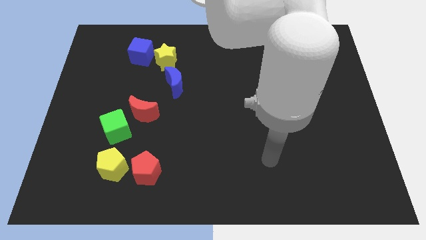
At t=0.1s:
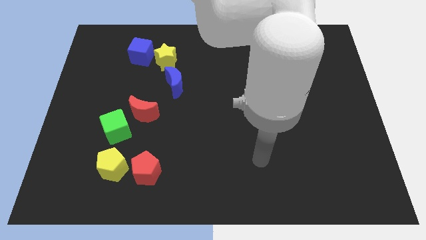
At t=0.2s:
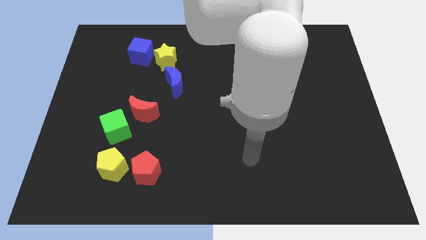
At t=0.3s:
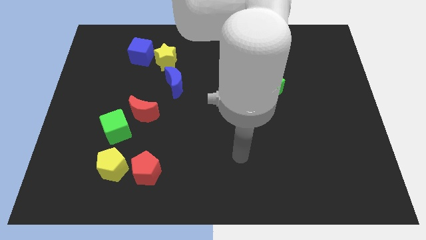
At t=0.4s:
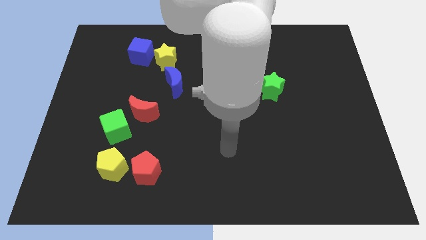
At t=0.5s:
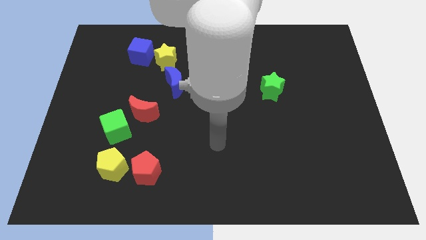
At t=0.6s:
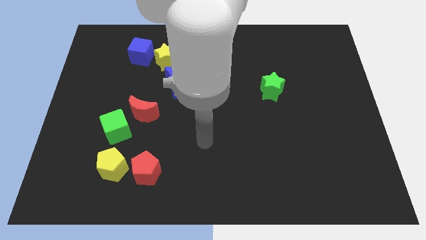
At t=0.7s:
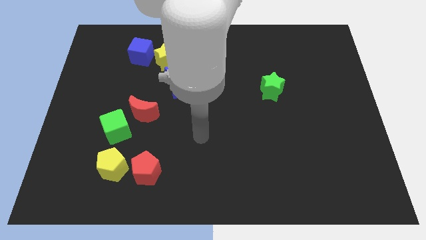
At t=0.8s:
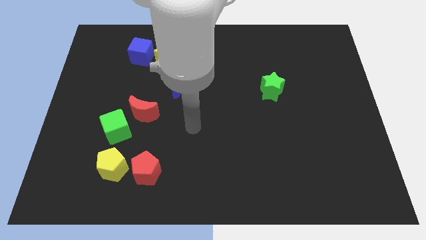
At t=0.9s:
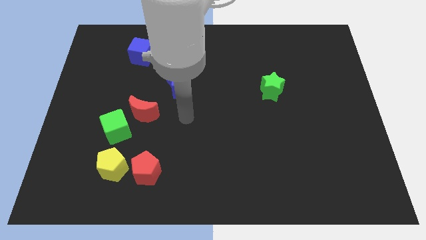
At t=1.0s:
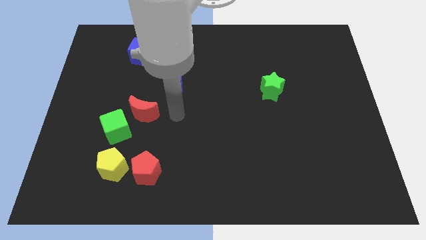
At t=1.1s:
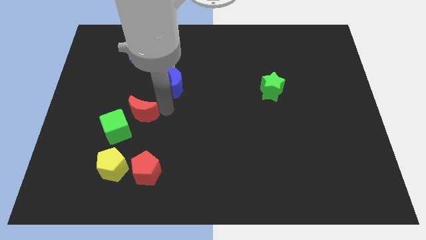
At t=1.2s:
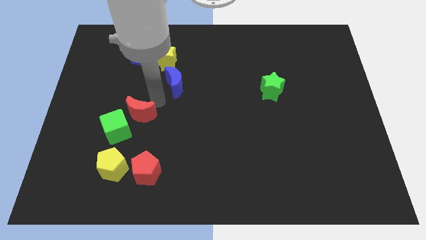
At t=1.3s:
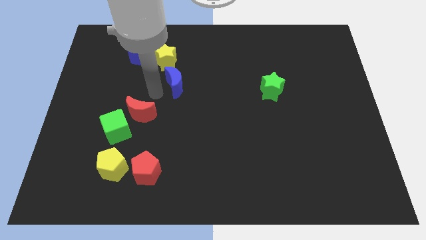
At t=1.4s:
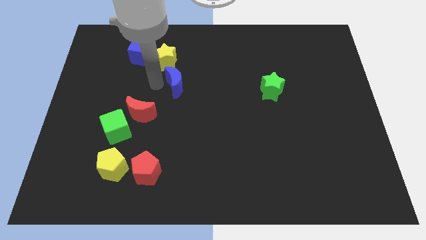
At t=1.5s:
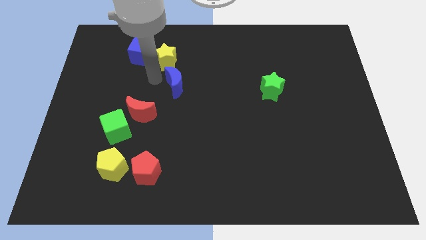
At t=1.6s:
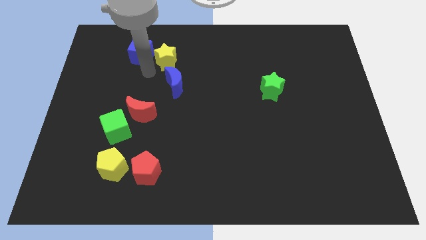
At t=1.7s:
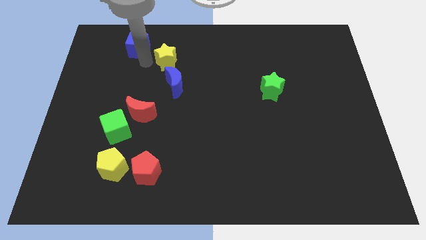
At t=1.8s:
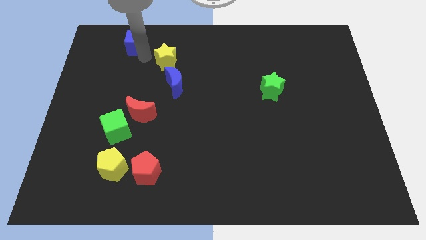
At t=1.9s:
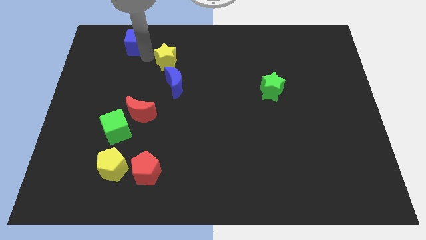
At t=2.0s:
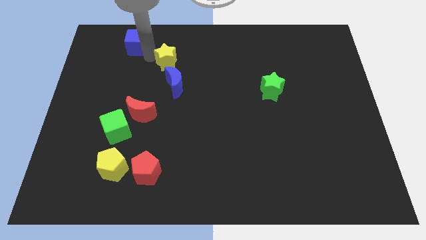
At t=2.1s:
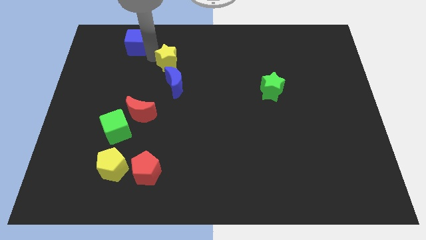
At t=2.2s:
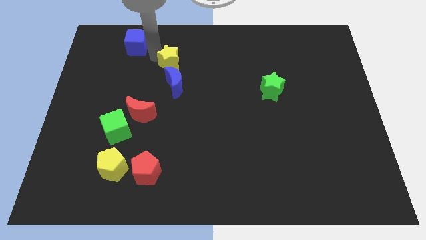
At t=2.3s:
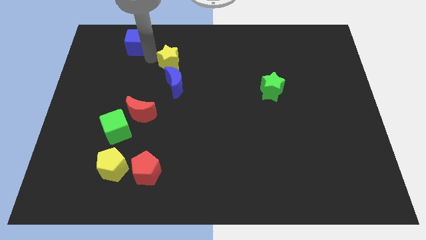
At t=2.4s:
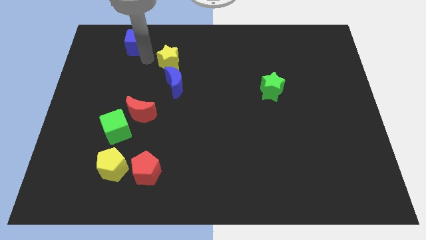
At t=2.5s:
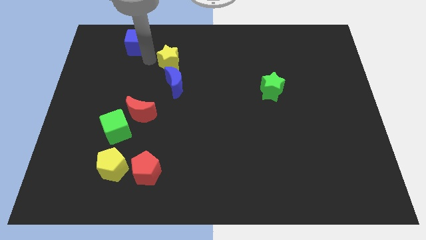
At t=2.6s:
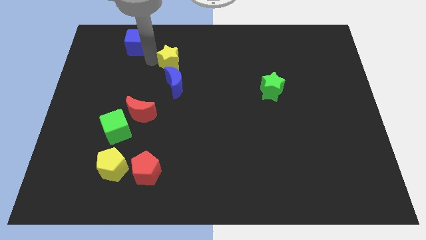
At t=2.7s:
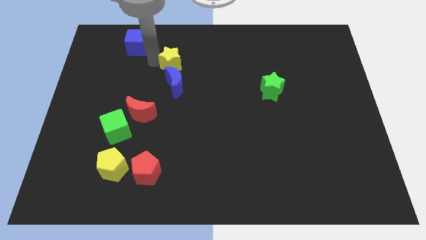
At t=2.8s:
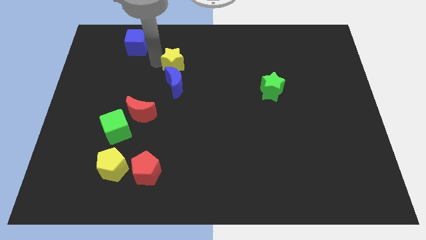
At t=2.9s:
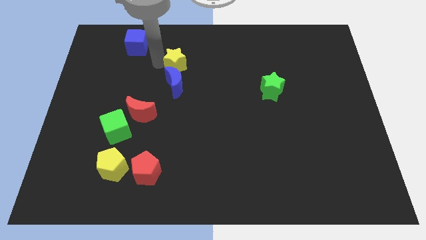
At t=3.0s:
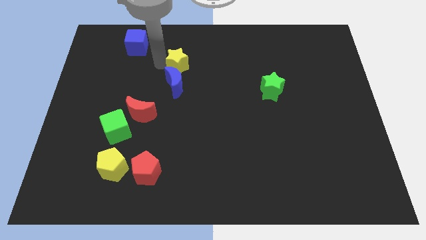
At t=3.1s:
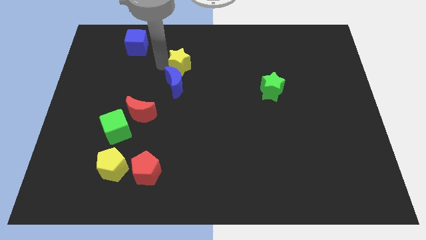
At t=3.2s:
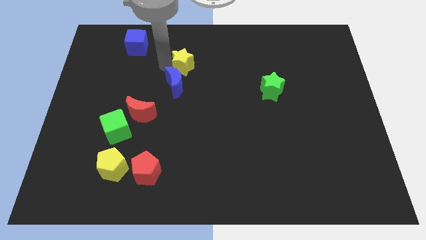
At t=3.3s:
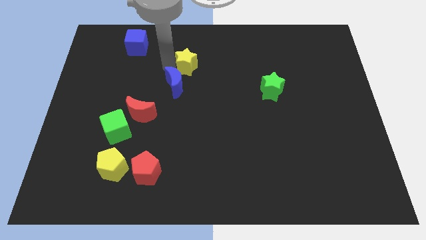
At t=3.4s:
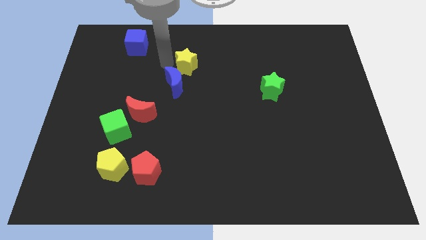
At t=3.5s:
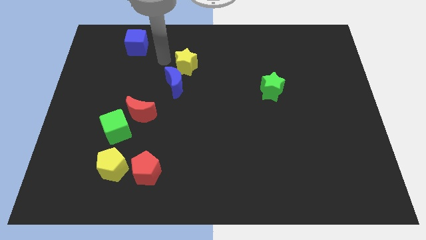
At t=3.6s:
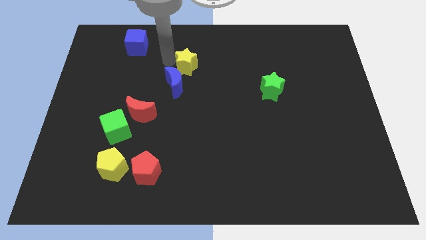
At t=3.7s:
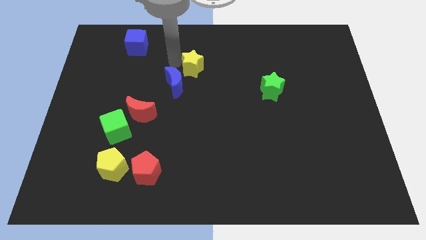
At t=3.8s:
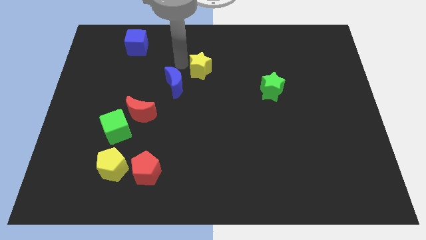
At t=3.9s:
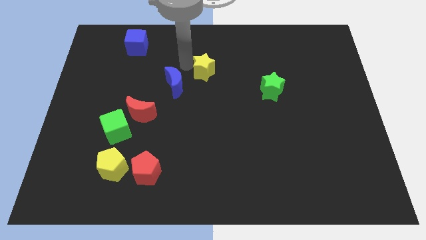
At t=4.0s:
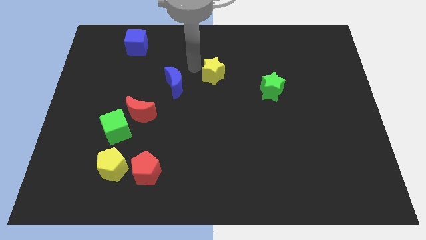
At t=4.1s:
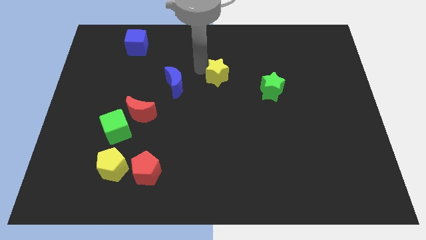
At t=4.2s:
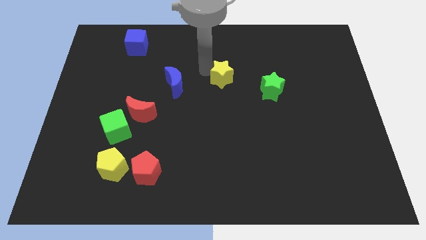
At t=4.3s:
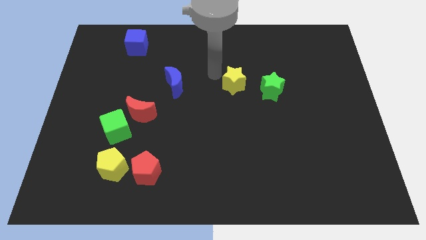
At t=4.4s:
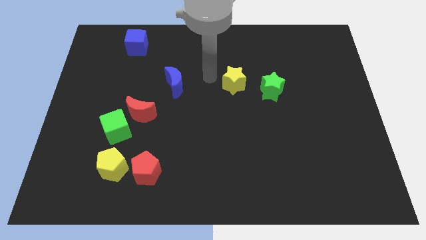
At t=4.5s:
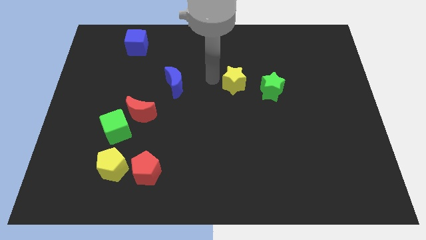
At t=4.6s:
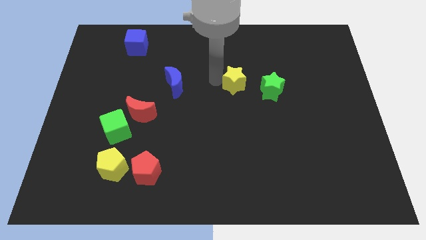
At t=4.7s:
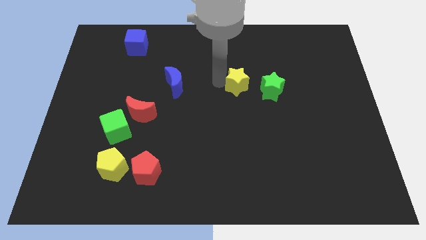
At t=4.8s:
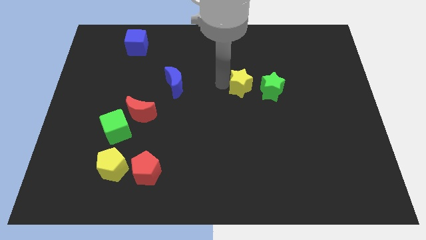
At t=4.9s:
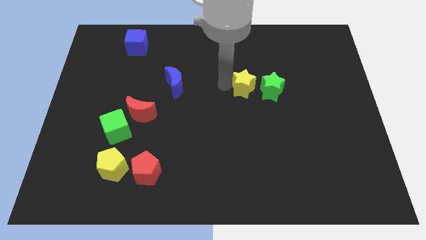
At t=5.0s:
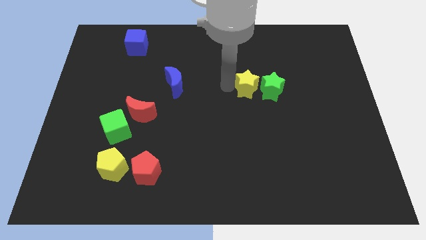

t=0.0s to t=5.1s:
slide the yellow star close to the green star

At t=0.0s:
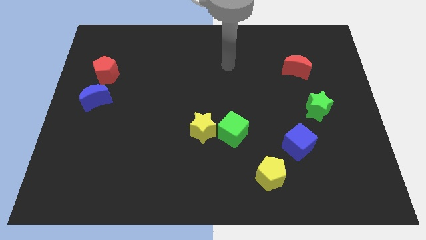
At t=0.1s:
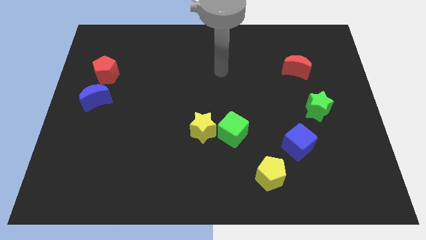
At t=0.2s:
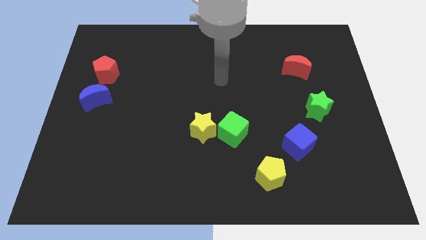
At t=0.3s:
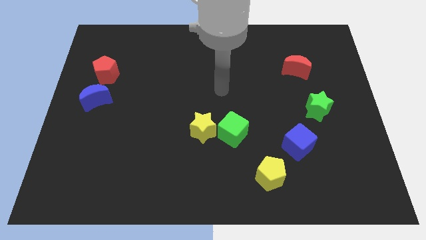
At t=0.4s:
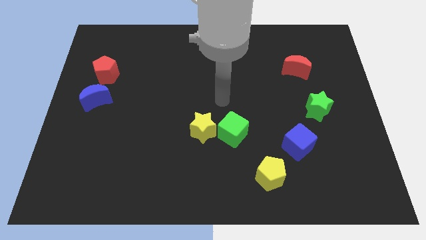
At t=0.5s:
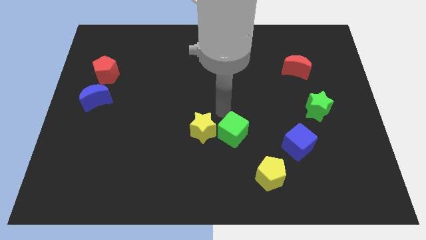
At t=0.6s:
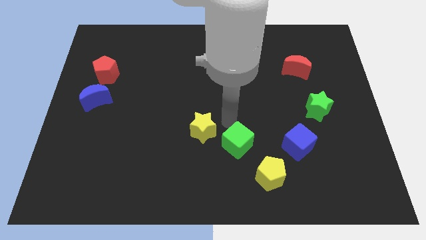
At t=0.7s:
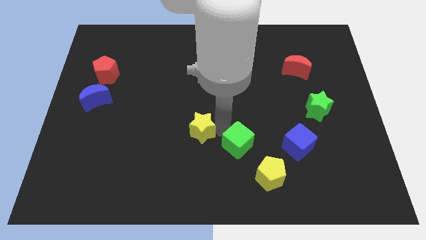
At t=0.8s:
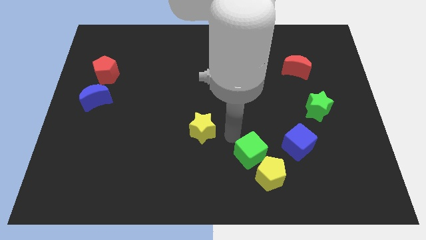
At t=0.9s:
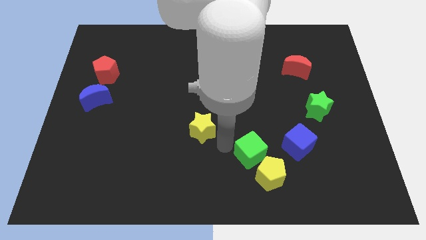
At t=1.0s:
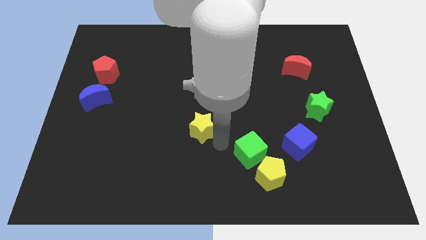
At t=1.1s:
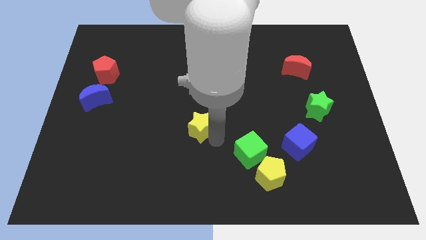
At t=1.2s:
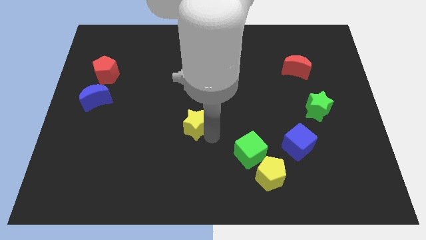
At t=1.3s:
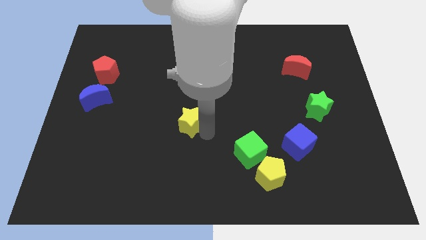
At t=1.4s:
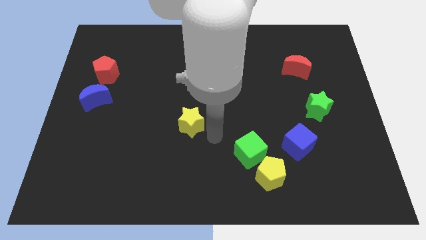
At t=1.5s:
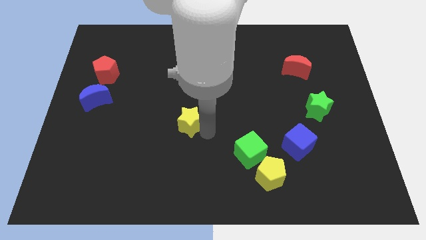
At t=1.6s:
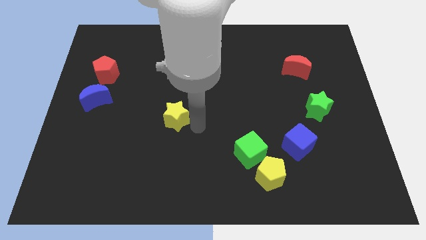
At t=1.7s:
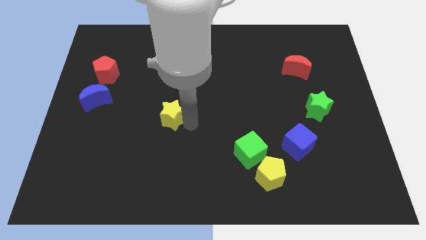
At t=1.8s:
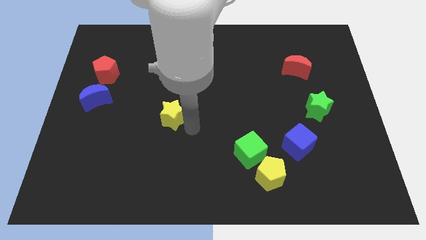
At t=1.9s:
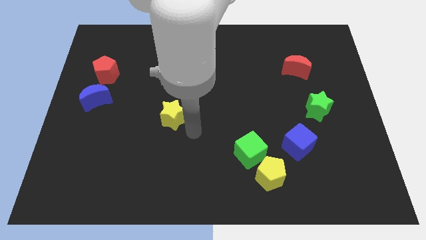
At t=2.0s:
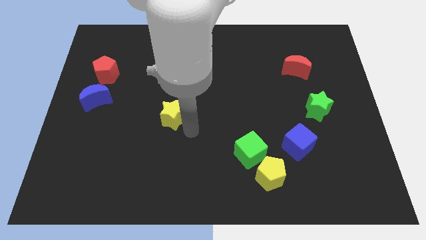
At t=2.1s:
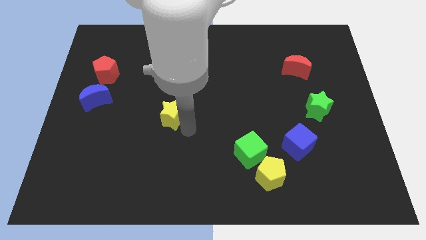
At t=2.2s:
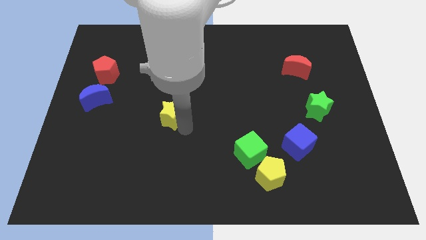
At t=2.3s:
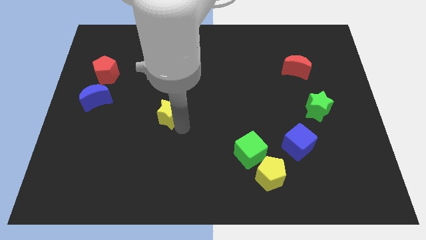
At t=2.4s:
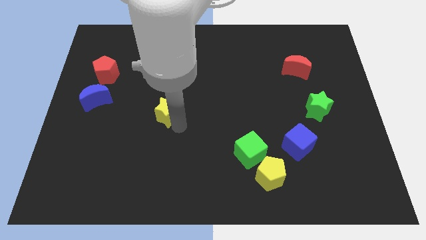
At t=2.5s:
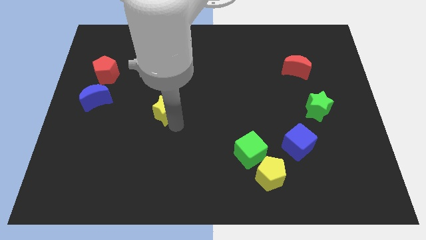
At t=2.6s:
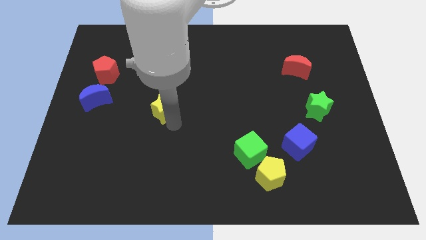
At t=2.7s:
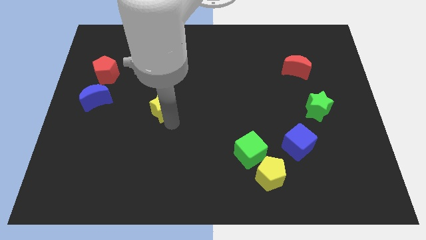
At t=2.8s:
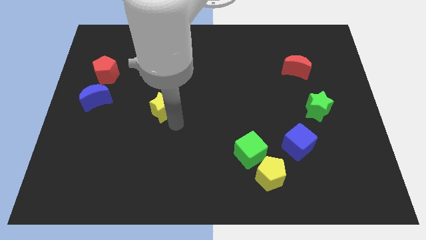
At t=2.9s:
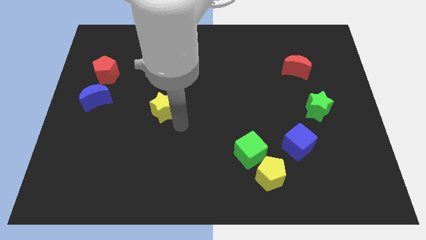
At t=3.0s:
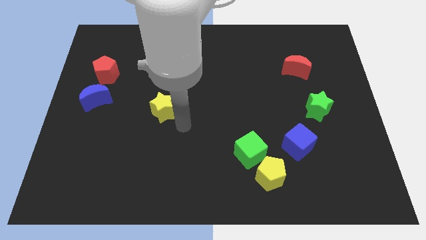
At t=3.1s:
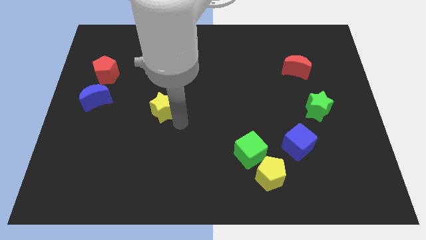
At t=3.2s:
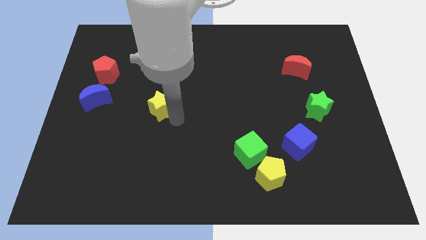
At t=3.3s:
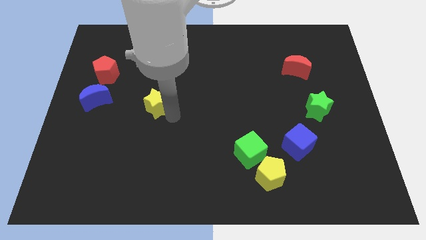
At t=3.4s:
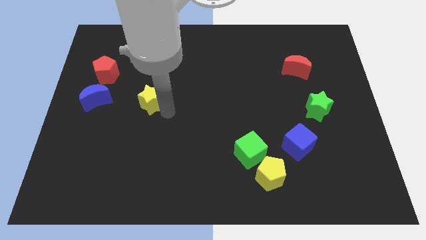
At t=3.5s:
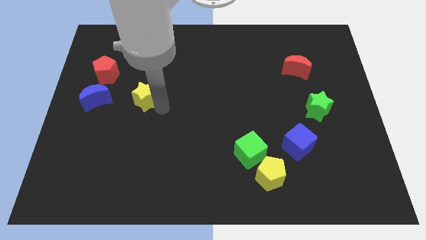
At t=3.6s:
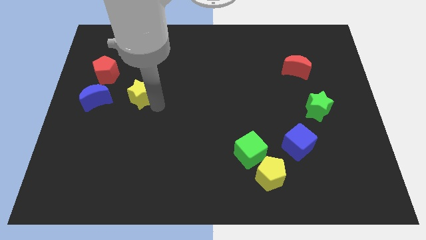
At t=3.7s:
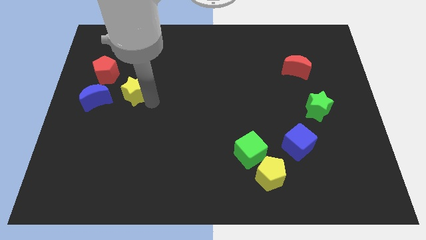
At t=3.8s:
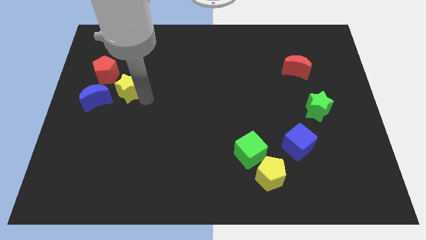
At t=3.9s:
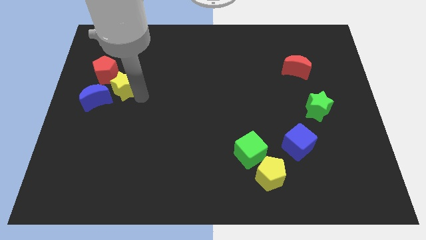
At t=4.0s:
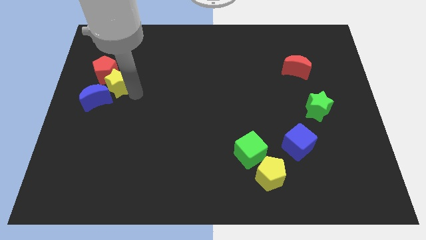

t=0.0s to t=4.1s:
put the yellow star close to the red pentagon
